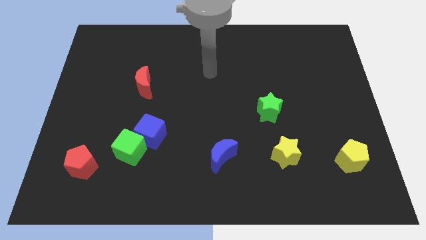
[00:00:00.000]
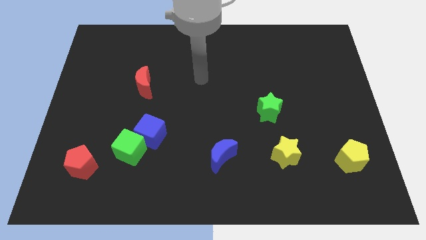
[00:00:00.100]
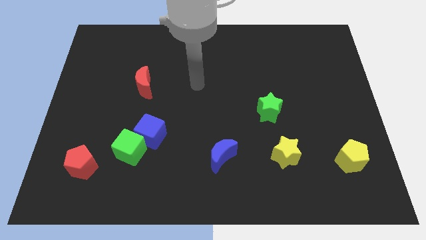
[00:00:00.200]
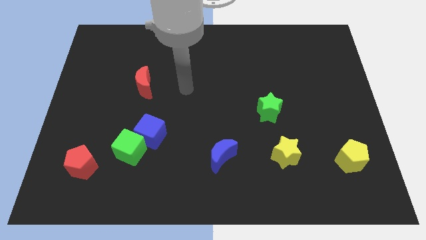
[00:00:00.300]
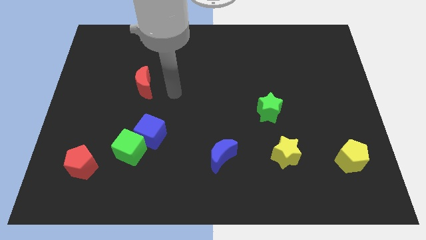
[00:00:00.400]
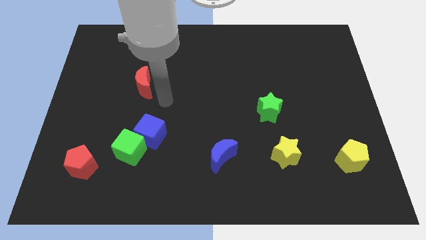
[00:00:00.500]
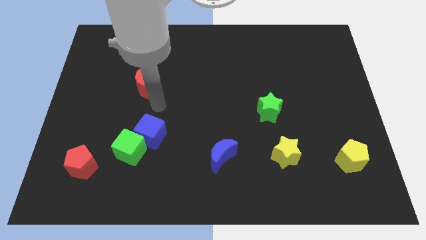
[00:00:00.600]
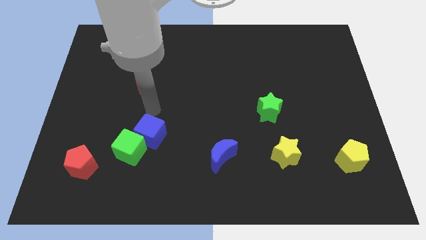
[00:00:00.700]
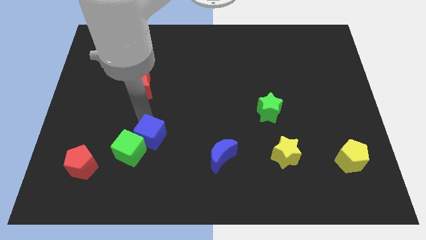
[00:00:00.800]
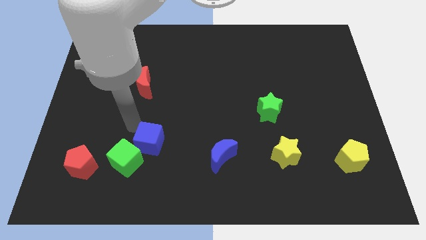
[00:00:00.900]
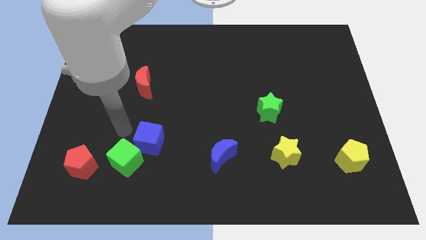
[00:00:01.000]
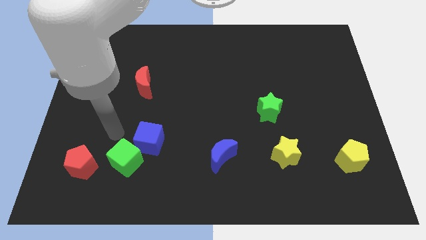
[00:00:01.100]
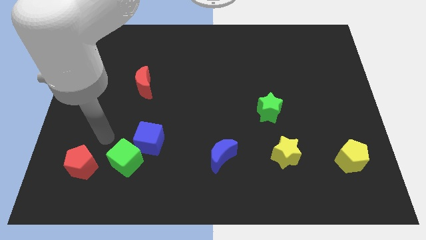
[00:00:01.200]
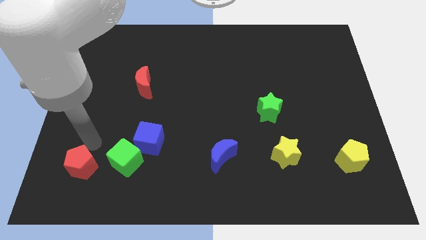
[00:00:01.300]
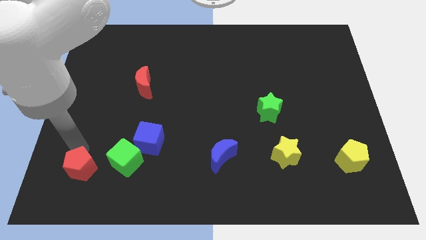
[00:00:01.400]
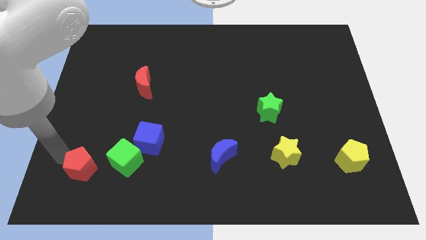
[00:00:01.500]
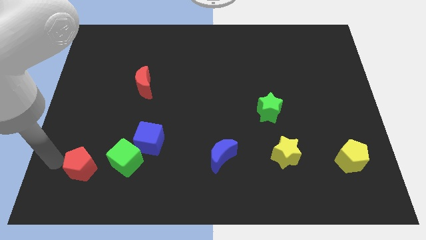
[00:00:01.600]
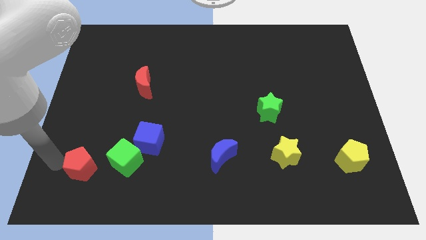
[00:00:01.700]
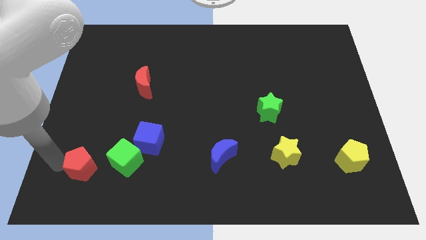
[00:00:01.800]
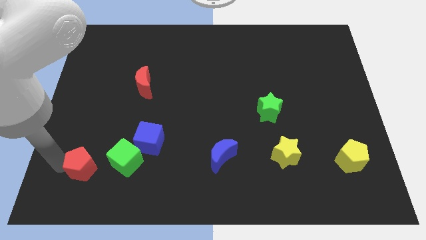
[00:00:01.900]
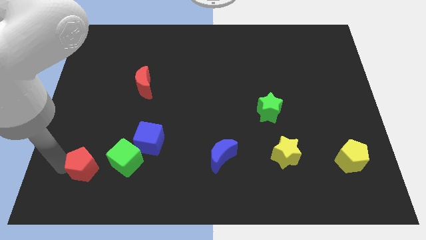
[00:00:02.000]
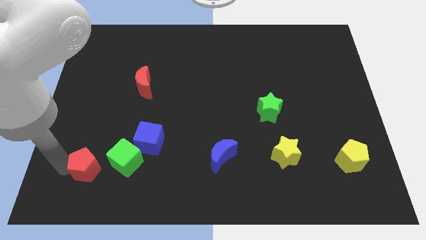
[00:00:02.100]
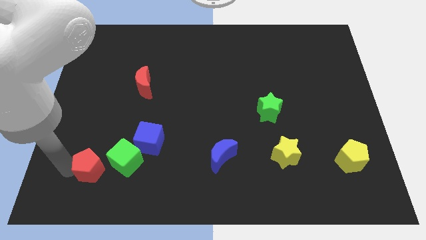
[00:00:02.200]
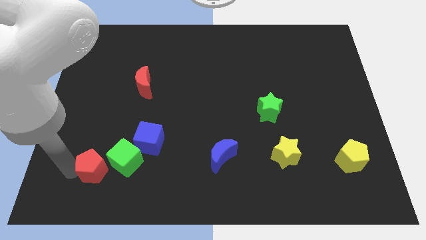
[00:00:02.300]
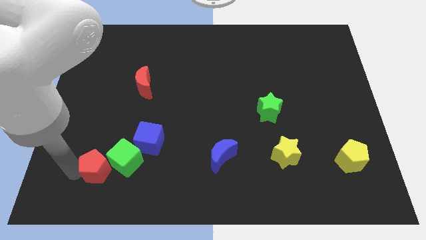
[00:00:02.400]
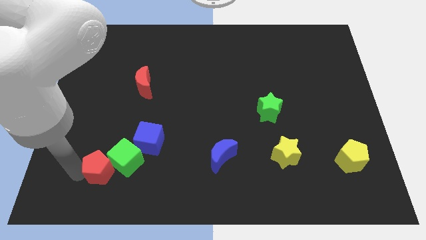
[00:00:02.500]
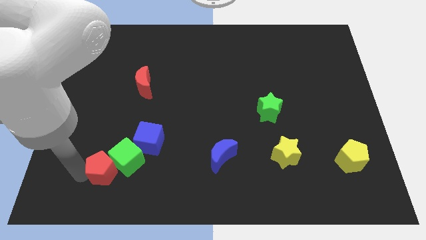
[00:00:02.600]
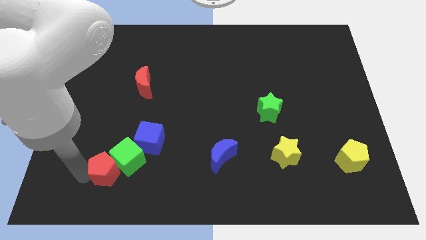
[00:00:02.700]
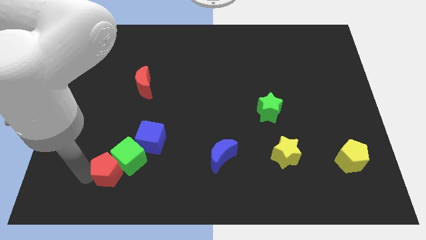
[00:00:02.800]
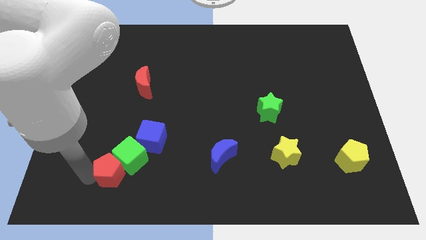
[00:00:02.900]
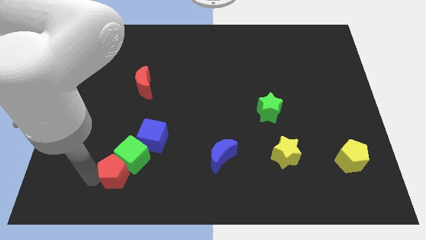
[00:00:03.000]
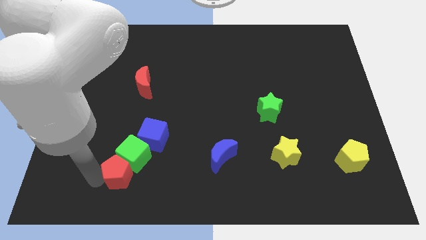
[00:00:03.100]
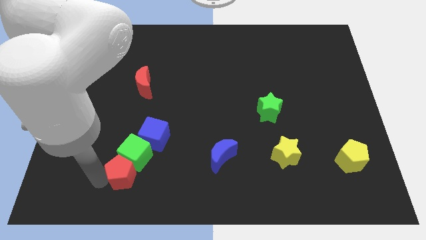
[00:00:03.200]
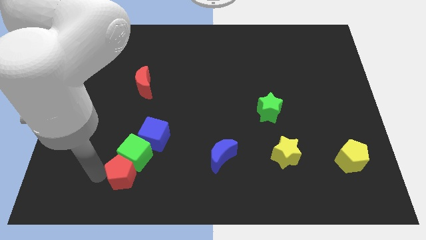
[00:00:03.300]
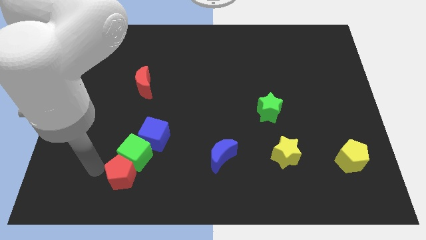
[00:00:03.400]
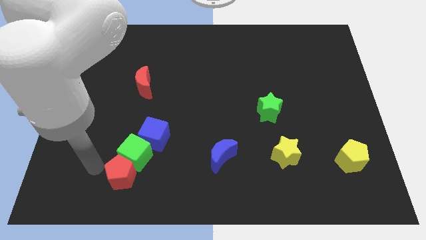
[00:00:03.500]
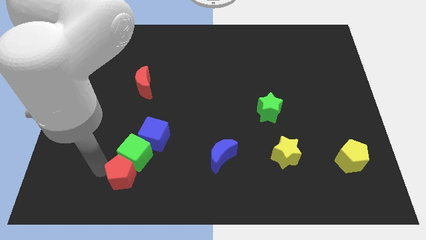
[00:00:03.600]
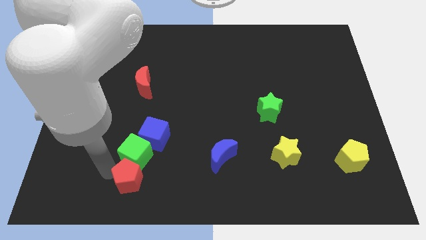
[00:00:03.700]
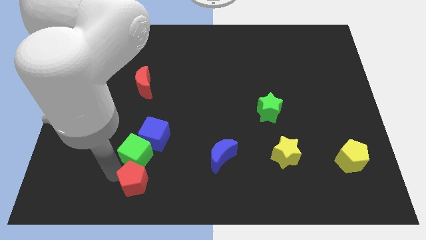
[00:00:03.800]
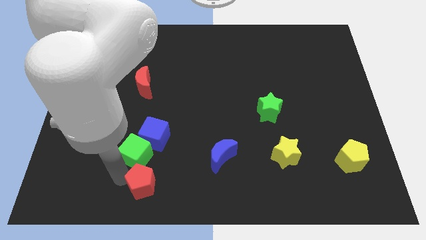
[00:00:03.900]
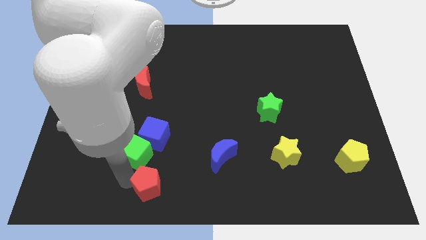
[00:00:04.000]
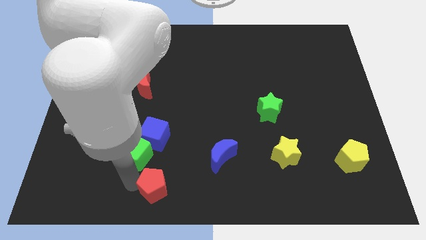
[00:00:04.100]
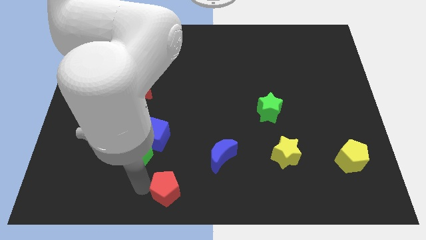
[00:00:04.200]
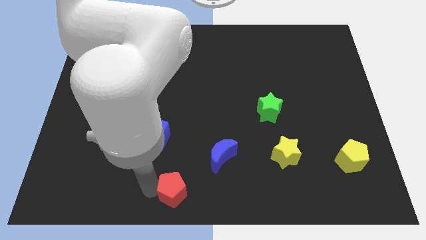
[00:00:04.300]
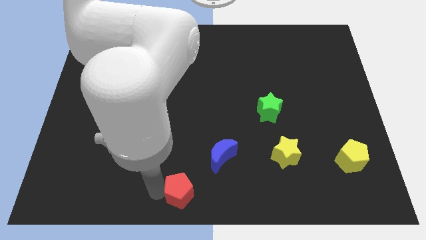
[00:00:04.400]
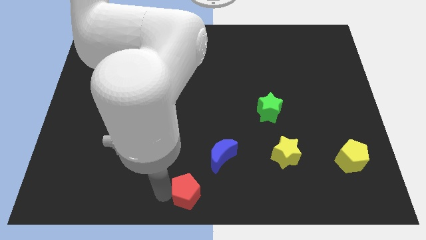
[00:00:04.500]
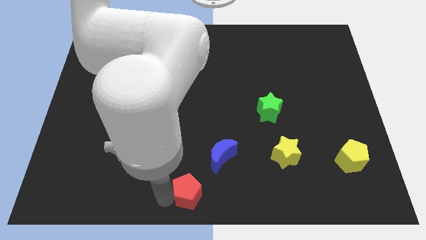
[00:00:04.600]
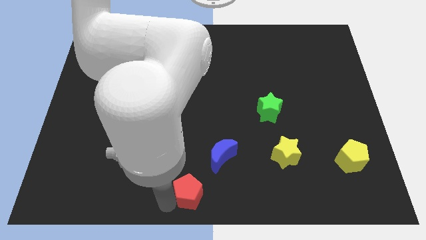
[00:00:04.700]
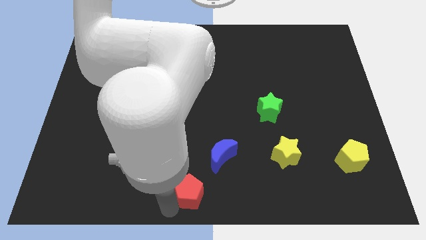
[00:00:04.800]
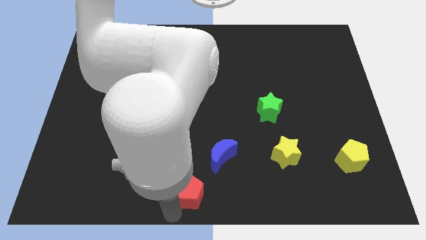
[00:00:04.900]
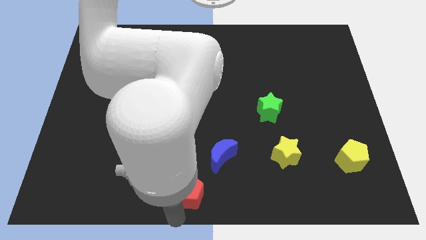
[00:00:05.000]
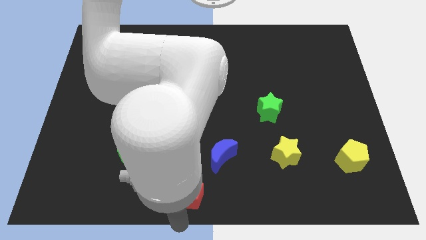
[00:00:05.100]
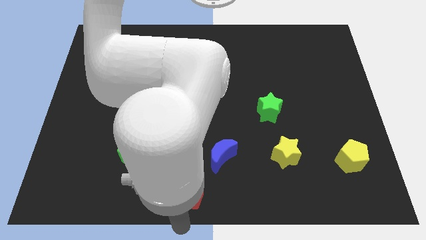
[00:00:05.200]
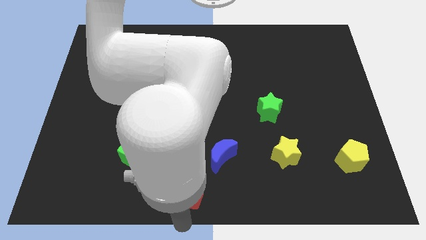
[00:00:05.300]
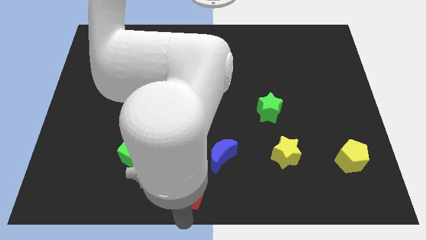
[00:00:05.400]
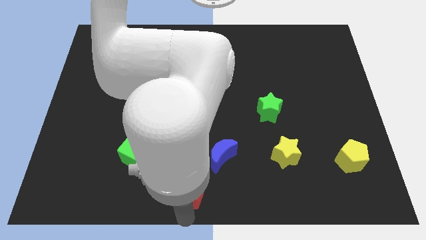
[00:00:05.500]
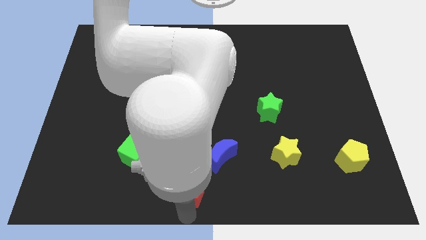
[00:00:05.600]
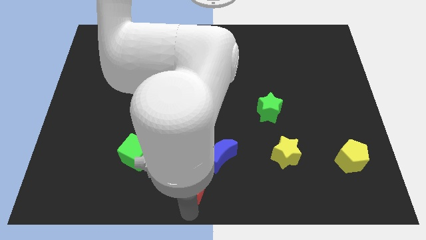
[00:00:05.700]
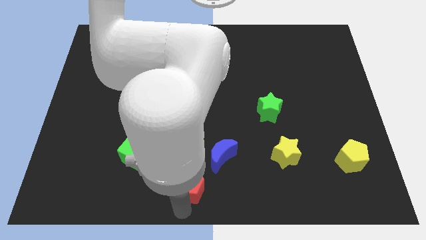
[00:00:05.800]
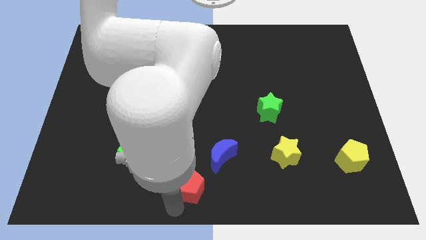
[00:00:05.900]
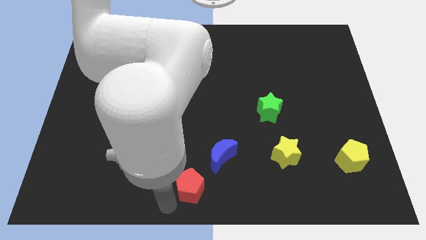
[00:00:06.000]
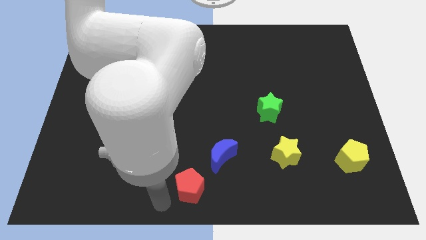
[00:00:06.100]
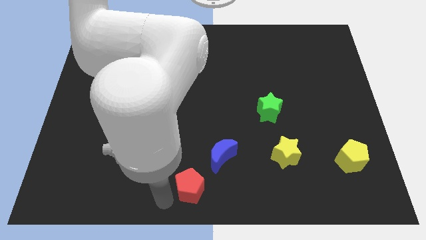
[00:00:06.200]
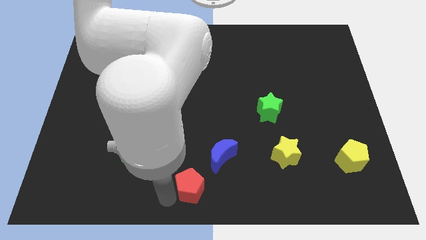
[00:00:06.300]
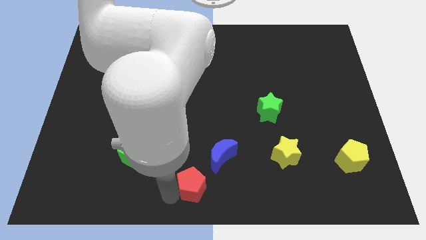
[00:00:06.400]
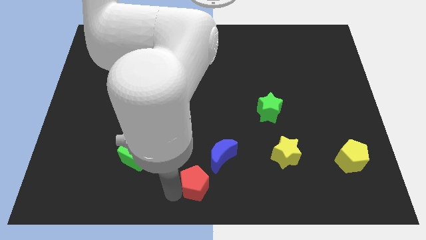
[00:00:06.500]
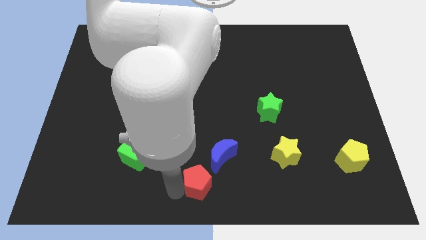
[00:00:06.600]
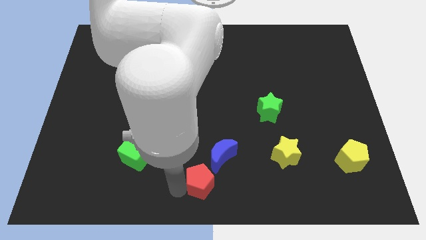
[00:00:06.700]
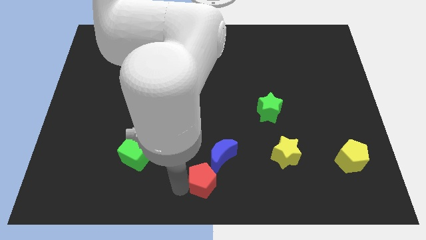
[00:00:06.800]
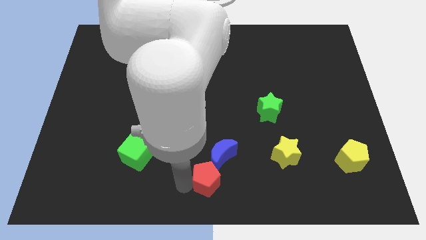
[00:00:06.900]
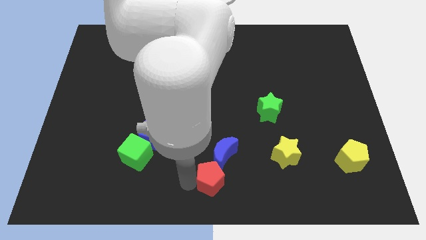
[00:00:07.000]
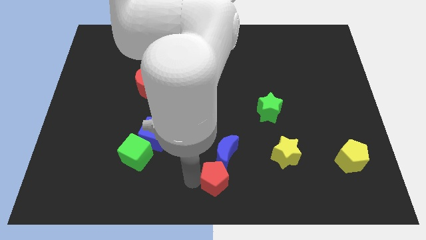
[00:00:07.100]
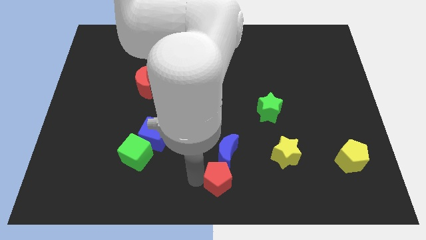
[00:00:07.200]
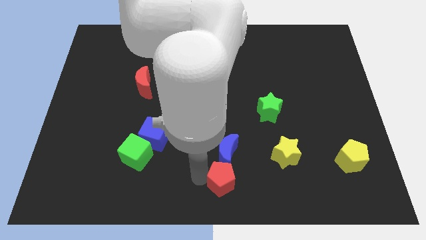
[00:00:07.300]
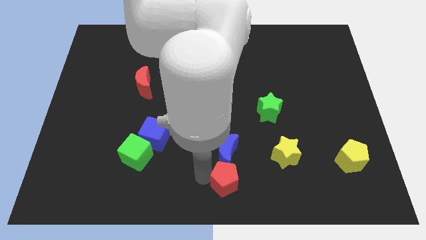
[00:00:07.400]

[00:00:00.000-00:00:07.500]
move the red pentagon diagonally down and to the right of the blue moon
